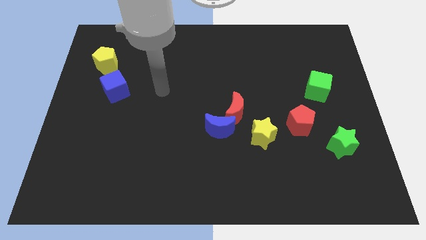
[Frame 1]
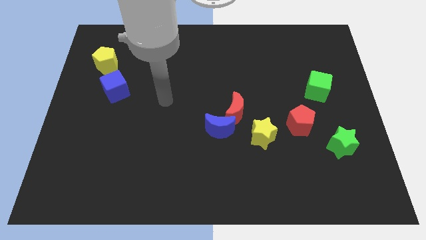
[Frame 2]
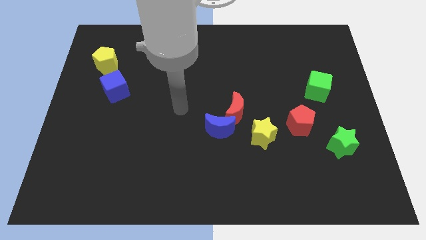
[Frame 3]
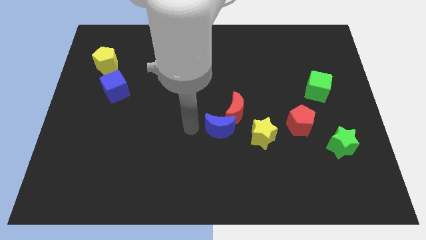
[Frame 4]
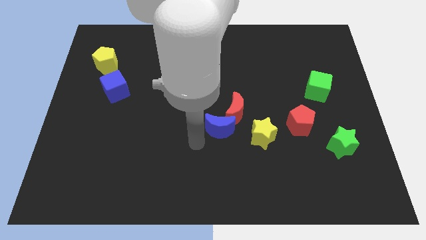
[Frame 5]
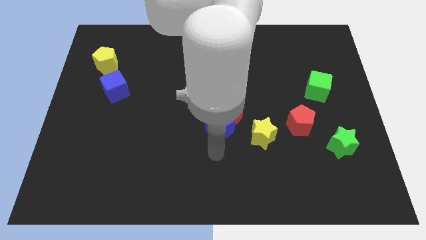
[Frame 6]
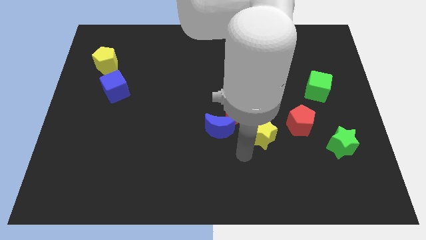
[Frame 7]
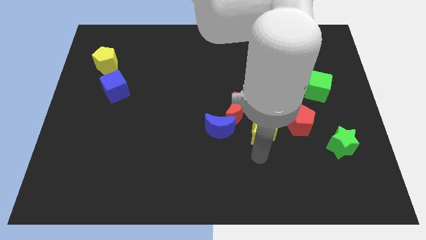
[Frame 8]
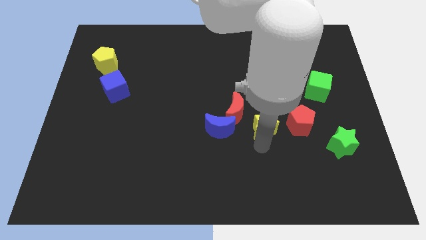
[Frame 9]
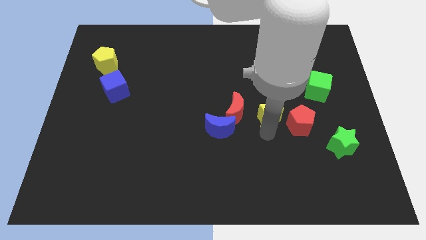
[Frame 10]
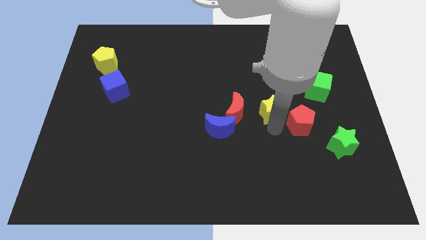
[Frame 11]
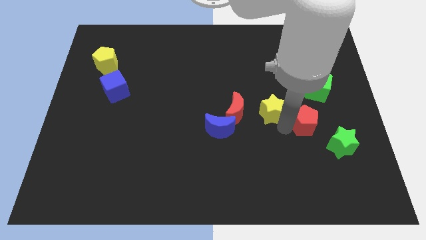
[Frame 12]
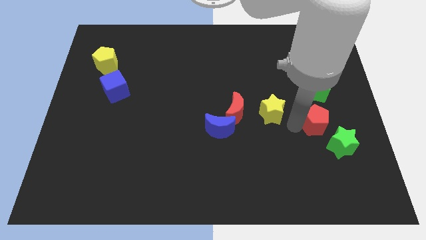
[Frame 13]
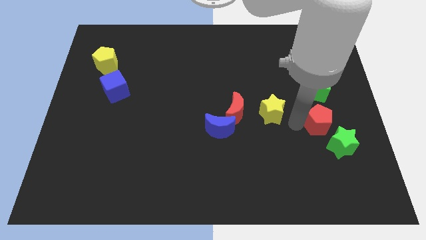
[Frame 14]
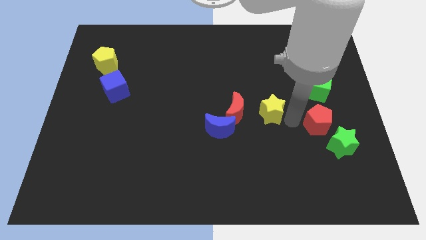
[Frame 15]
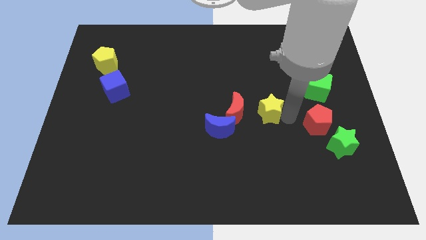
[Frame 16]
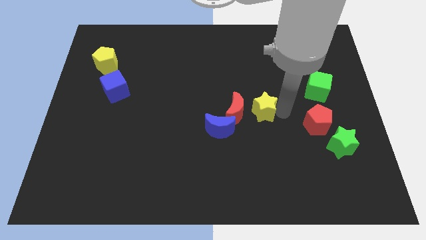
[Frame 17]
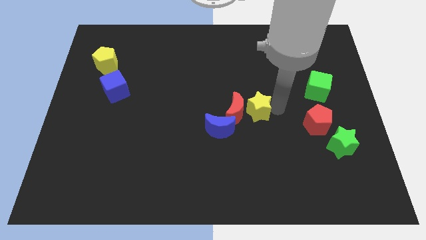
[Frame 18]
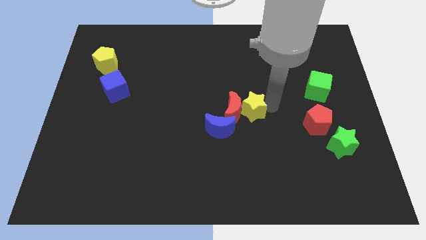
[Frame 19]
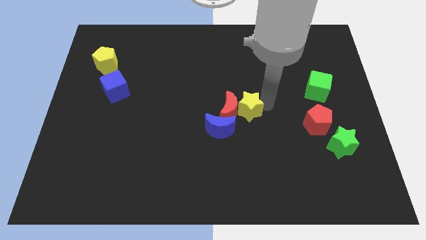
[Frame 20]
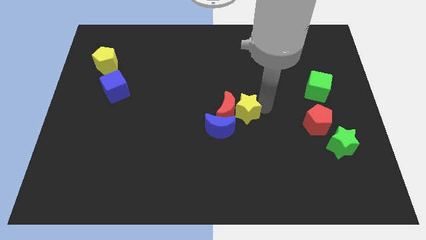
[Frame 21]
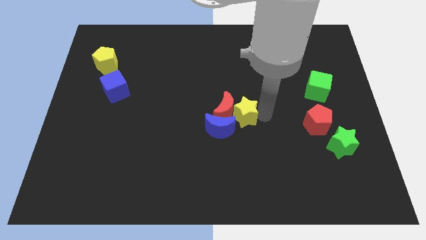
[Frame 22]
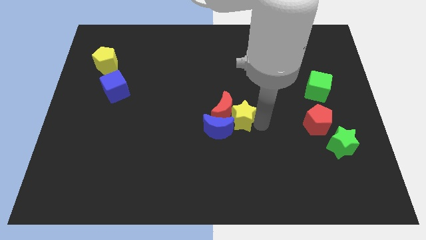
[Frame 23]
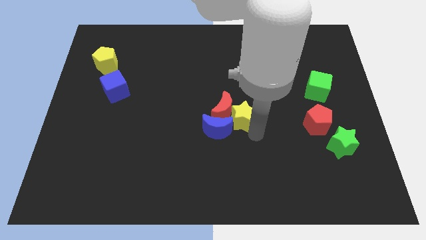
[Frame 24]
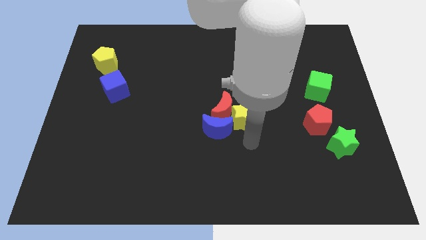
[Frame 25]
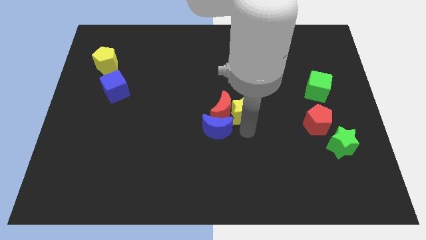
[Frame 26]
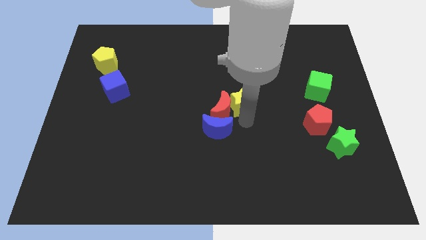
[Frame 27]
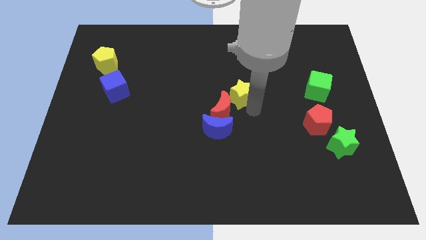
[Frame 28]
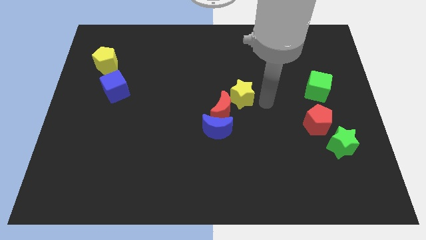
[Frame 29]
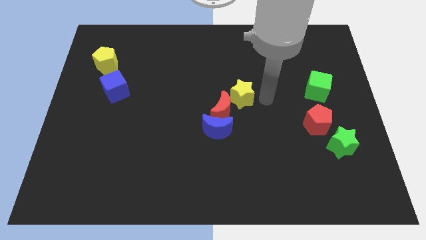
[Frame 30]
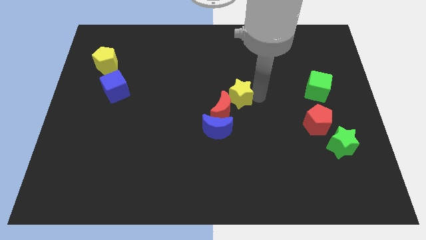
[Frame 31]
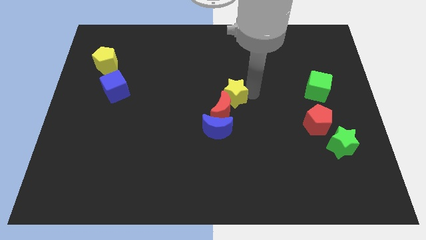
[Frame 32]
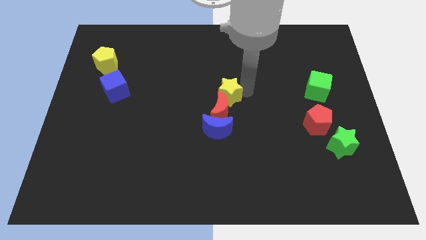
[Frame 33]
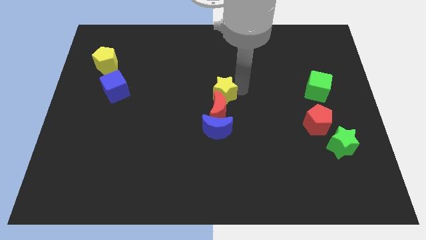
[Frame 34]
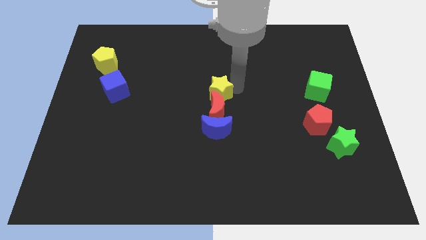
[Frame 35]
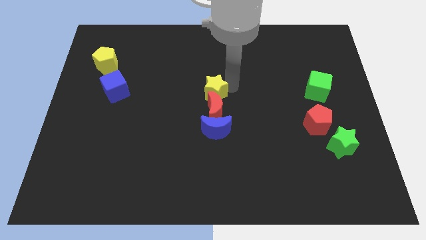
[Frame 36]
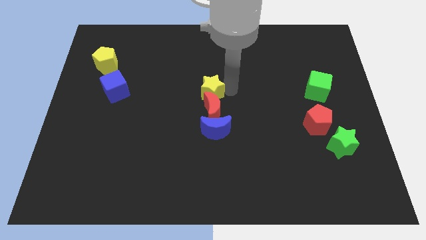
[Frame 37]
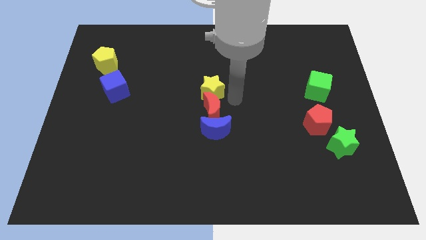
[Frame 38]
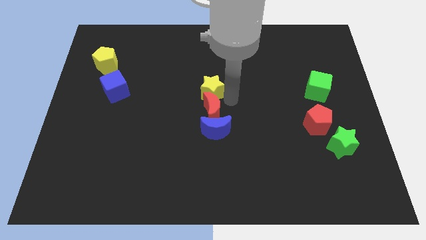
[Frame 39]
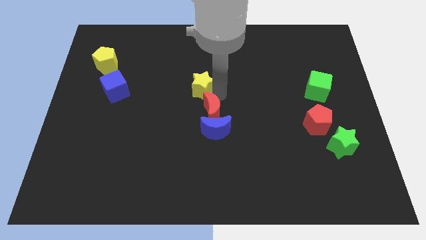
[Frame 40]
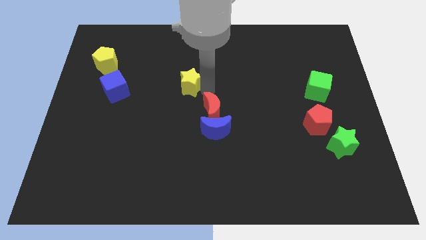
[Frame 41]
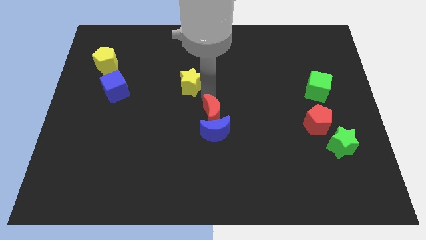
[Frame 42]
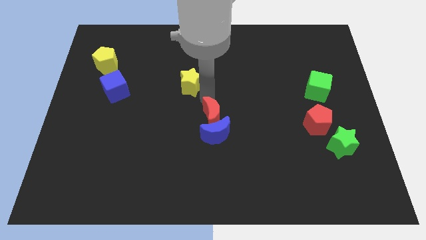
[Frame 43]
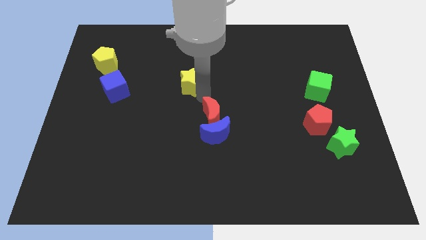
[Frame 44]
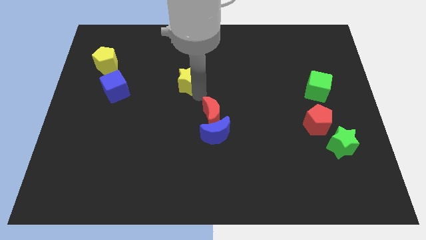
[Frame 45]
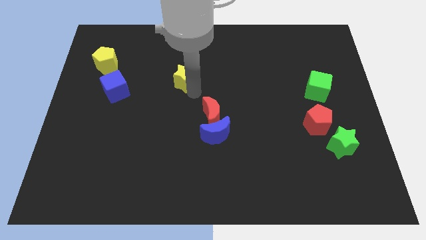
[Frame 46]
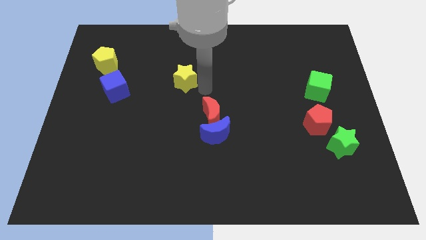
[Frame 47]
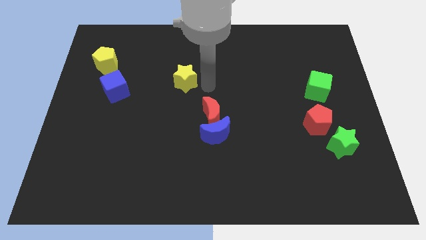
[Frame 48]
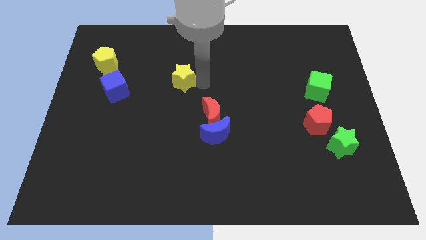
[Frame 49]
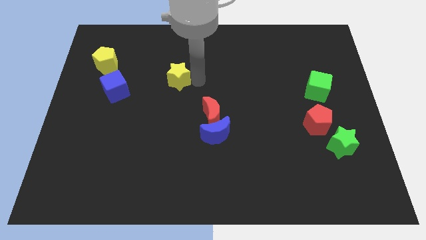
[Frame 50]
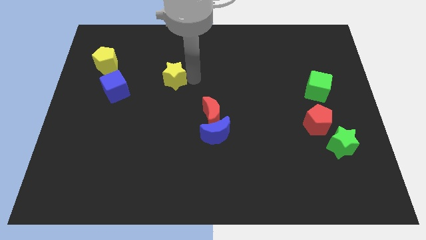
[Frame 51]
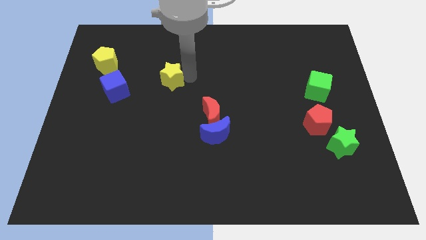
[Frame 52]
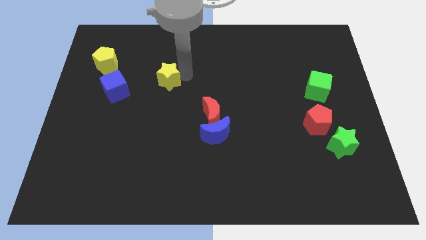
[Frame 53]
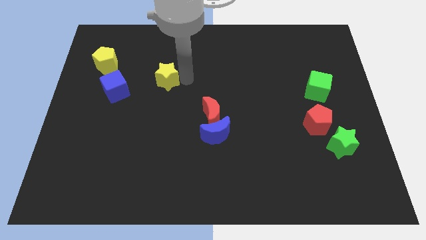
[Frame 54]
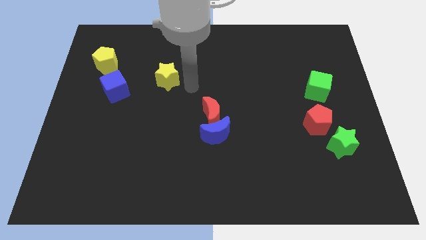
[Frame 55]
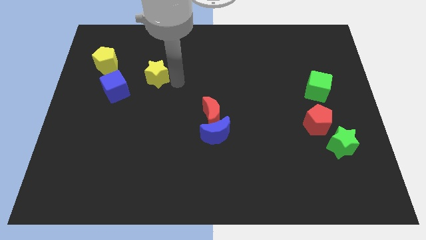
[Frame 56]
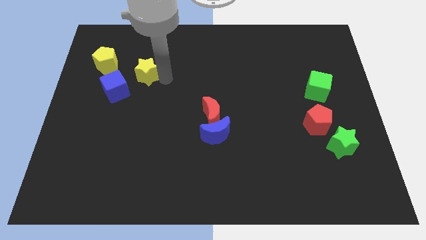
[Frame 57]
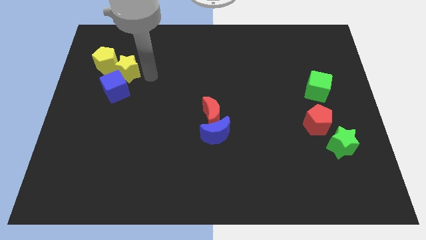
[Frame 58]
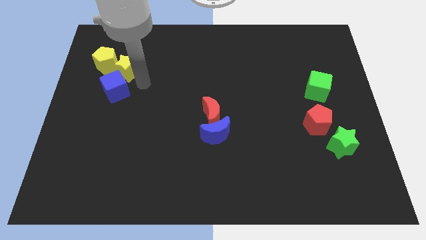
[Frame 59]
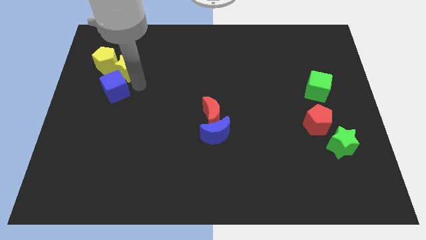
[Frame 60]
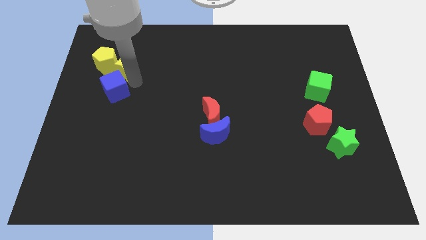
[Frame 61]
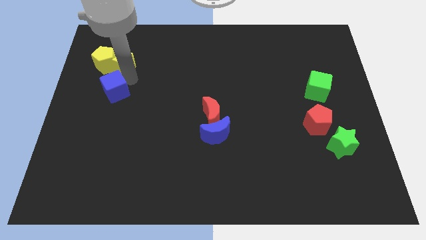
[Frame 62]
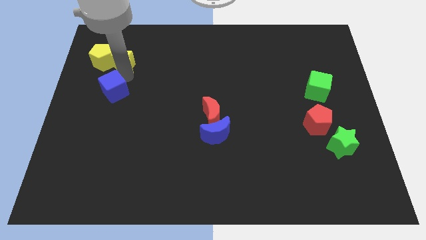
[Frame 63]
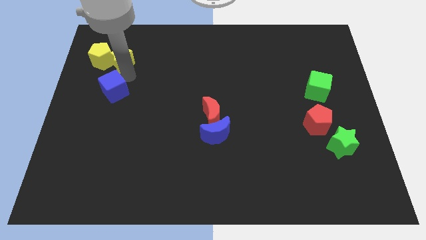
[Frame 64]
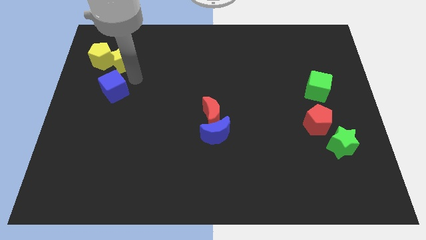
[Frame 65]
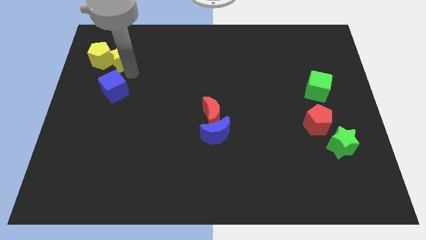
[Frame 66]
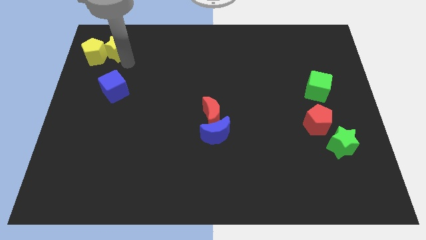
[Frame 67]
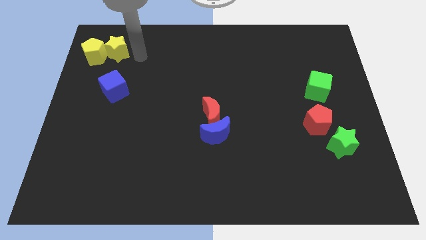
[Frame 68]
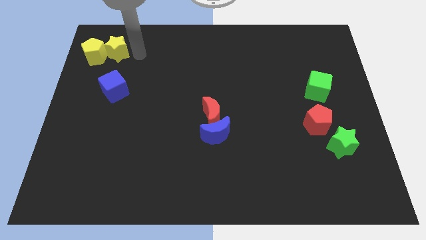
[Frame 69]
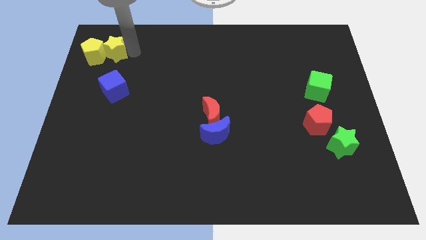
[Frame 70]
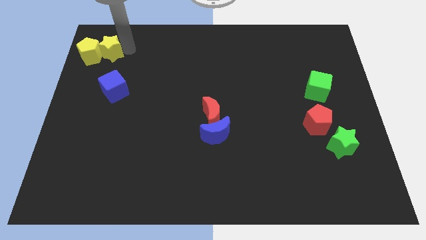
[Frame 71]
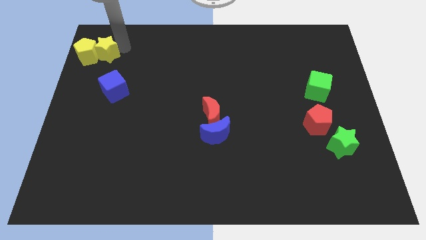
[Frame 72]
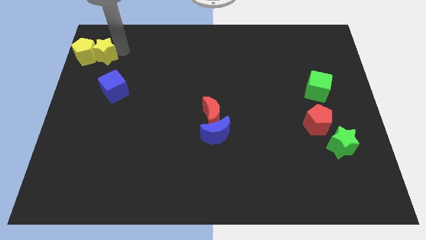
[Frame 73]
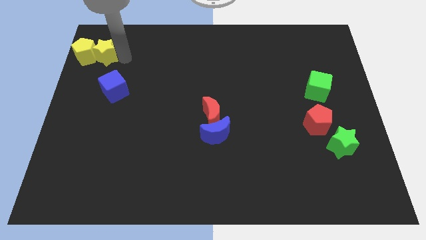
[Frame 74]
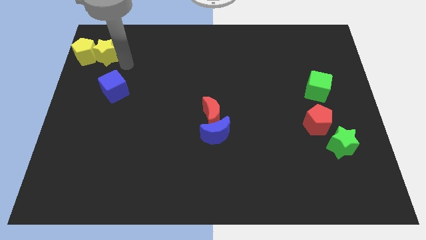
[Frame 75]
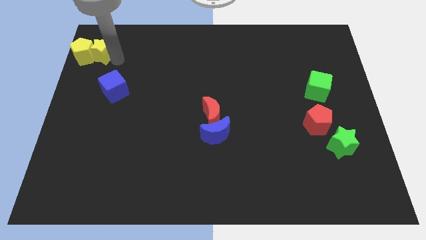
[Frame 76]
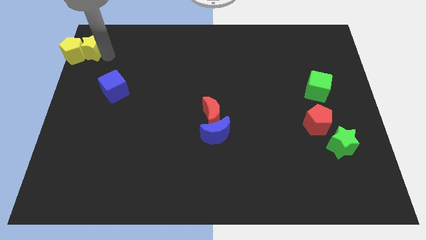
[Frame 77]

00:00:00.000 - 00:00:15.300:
slide the yellow star to the top left
